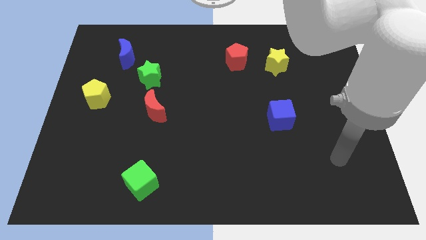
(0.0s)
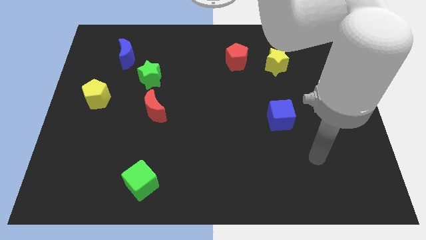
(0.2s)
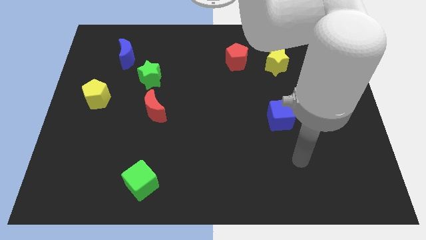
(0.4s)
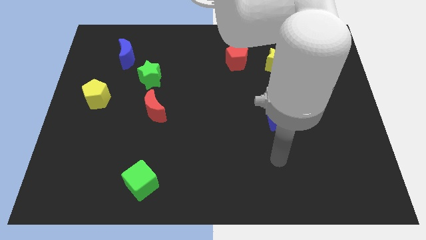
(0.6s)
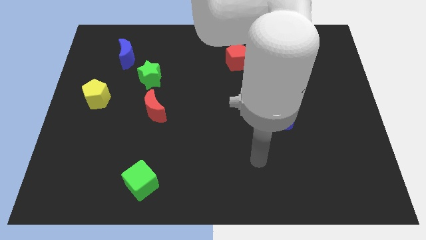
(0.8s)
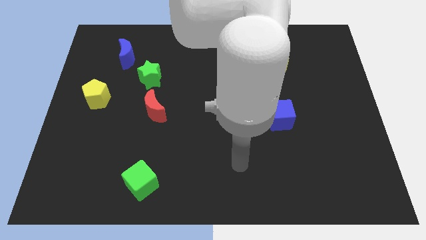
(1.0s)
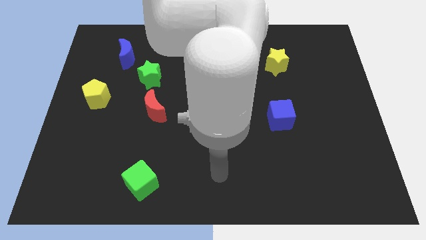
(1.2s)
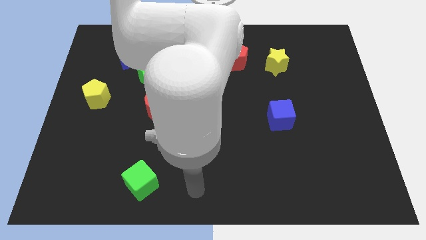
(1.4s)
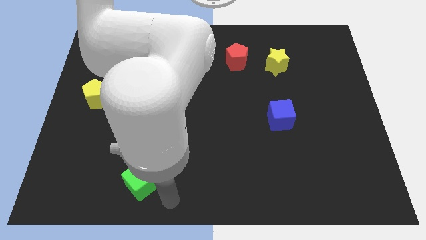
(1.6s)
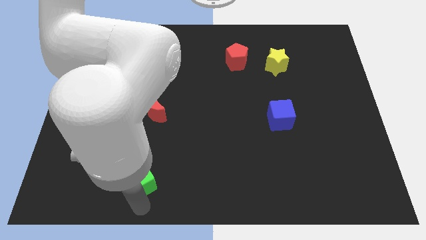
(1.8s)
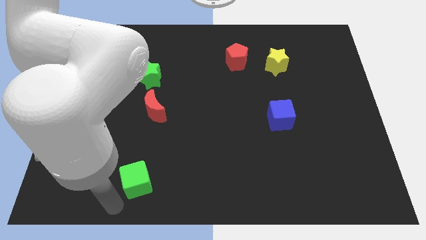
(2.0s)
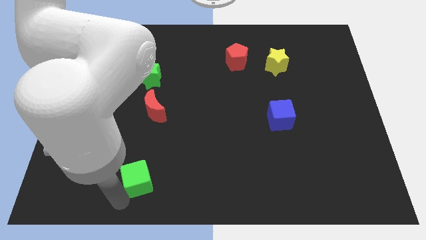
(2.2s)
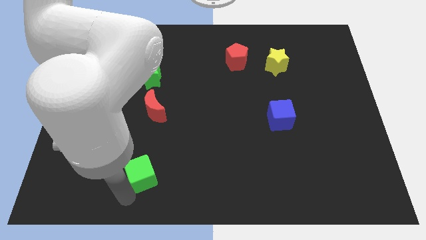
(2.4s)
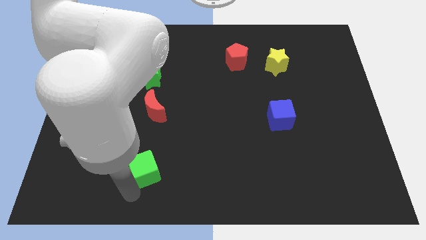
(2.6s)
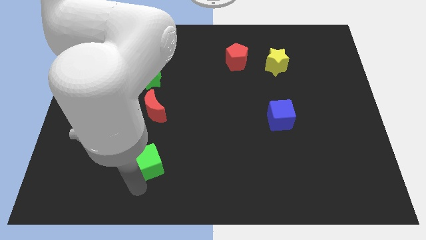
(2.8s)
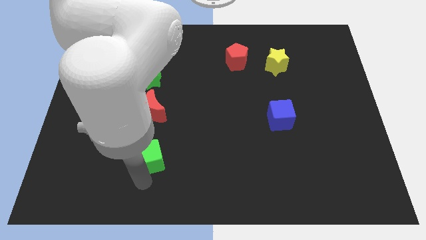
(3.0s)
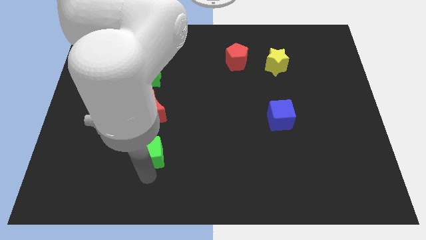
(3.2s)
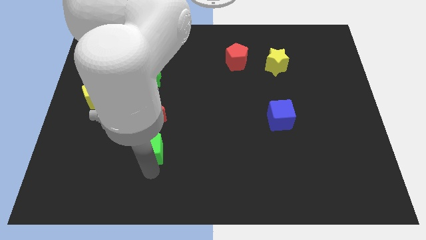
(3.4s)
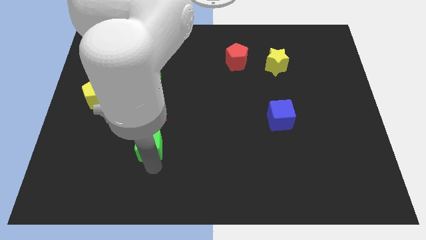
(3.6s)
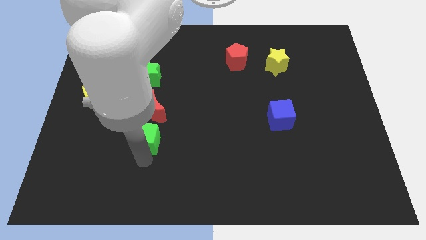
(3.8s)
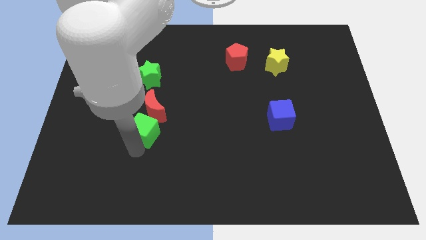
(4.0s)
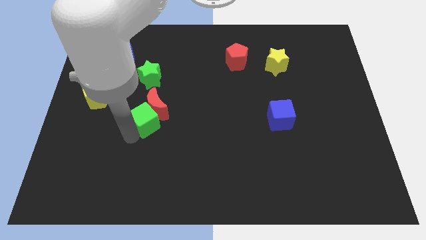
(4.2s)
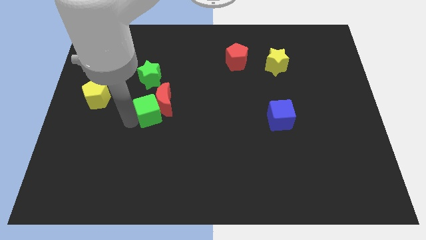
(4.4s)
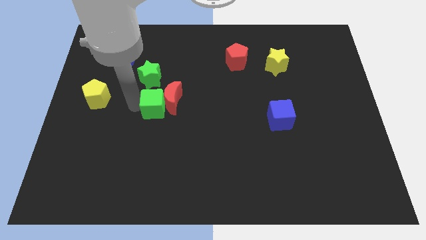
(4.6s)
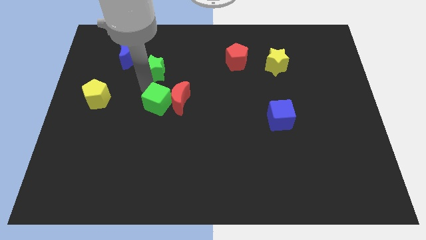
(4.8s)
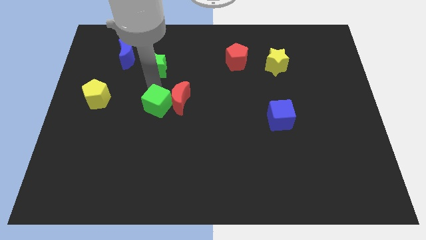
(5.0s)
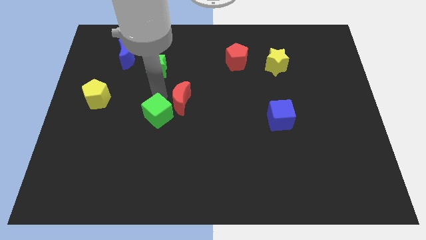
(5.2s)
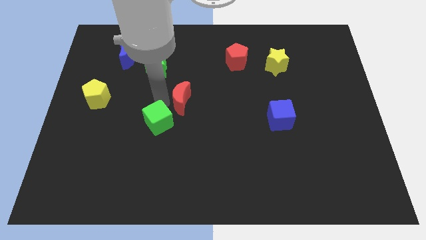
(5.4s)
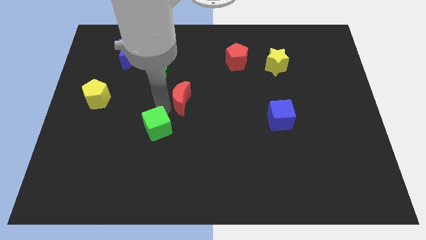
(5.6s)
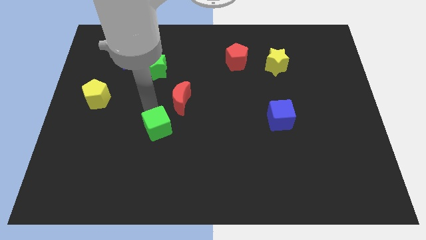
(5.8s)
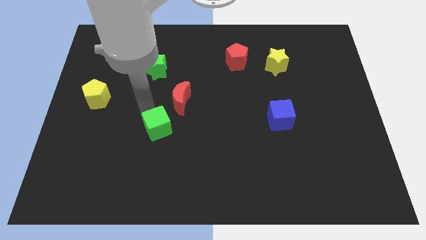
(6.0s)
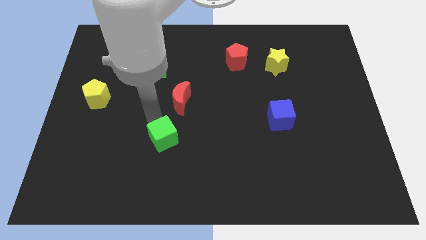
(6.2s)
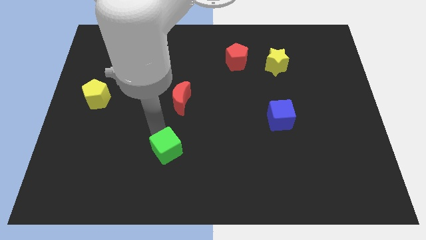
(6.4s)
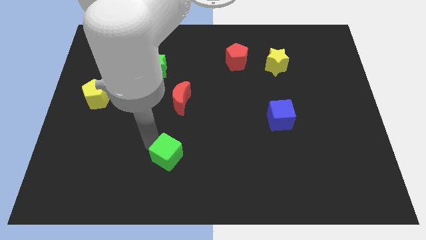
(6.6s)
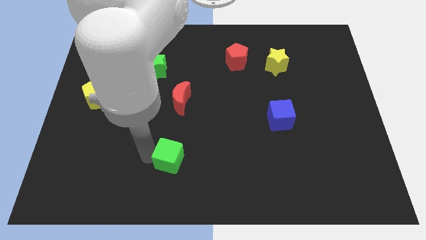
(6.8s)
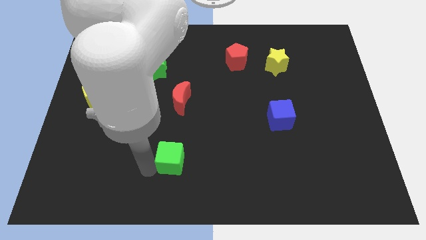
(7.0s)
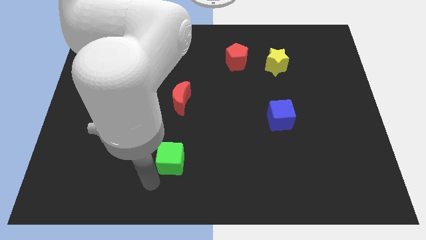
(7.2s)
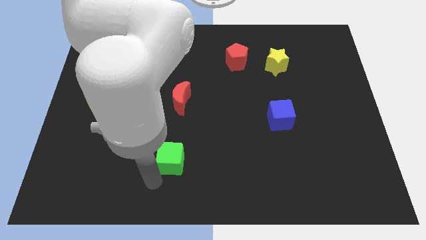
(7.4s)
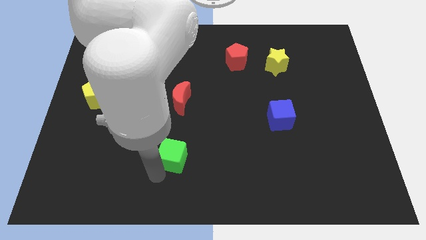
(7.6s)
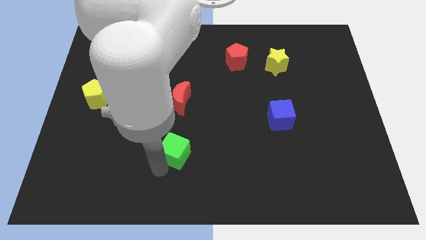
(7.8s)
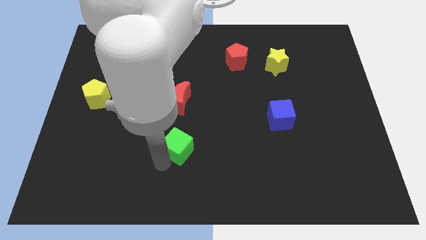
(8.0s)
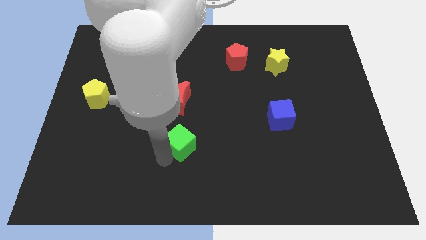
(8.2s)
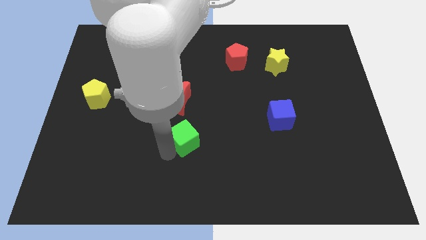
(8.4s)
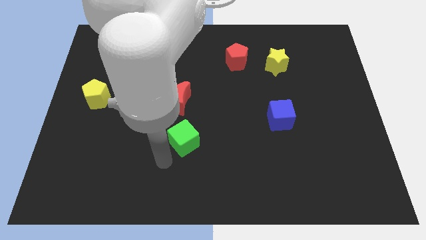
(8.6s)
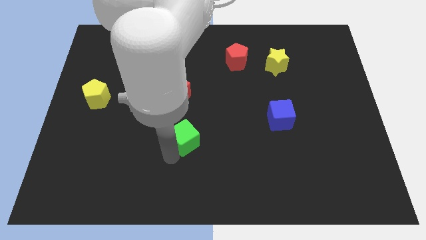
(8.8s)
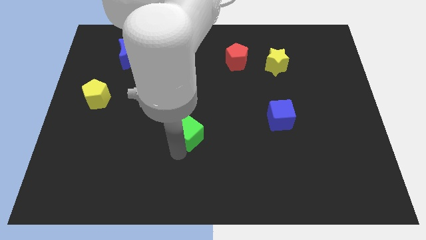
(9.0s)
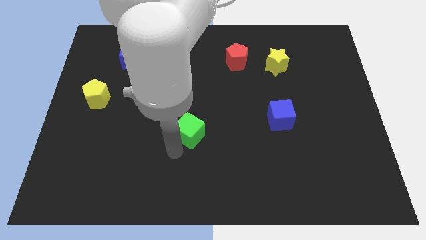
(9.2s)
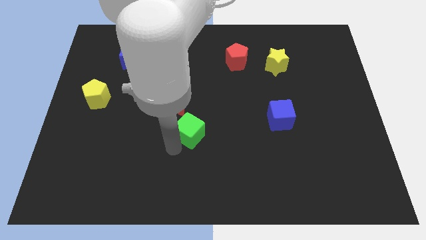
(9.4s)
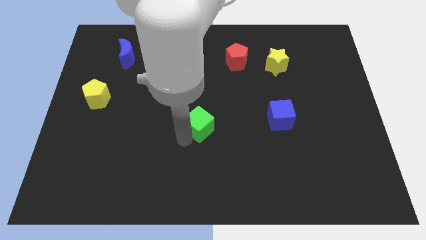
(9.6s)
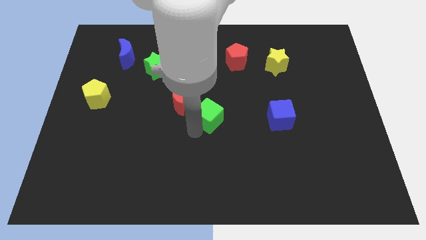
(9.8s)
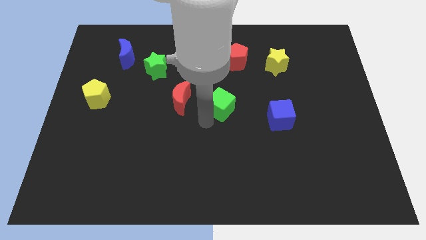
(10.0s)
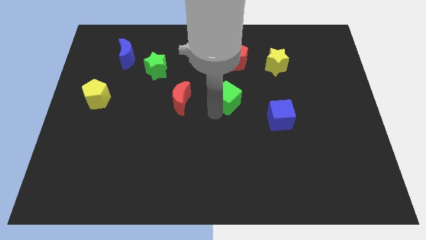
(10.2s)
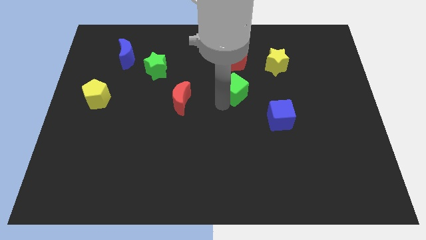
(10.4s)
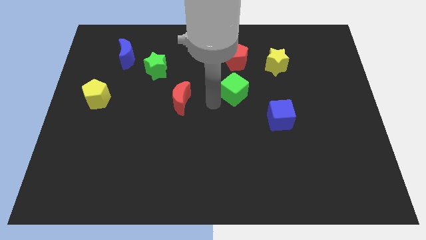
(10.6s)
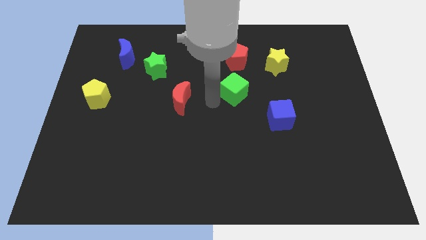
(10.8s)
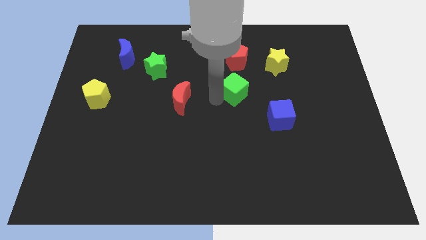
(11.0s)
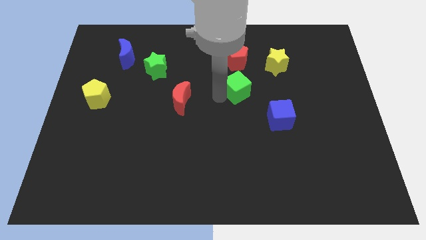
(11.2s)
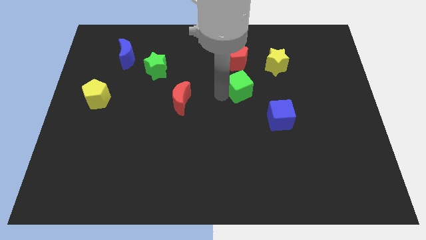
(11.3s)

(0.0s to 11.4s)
move the green cube to the bottom left of the yellow star

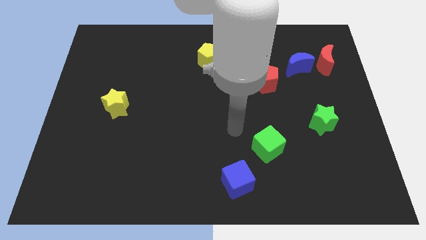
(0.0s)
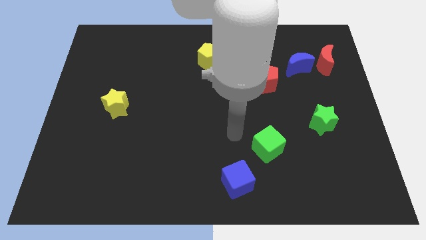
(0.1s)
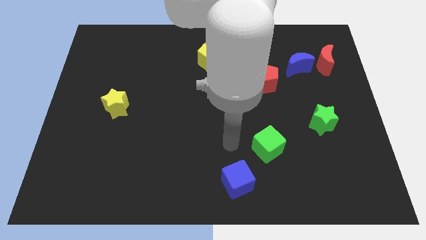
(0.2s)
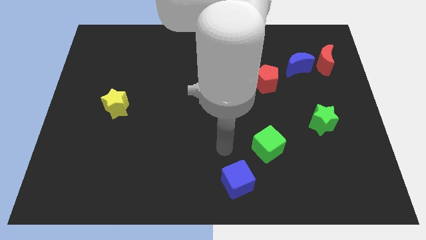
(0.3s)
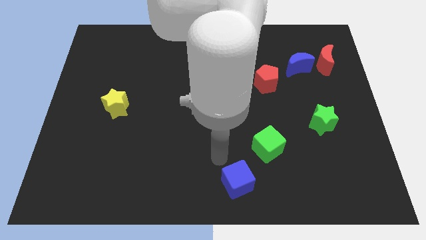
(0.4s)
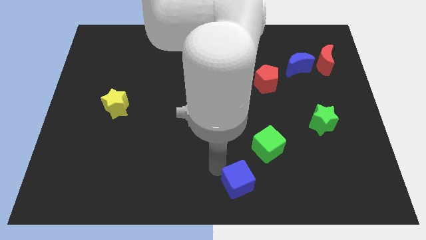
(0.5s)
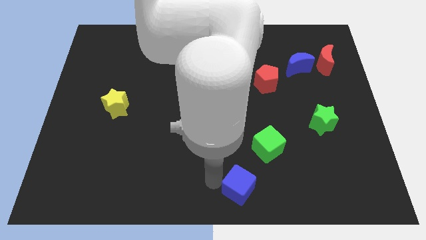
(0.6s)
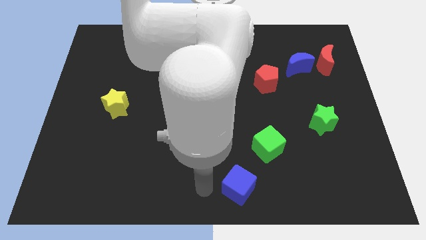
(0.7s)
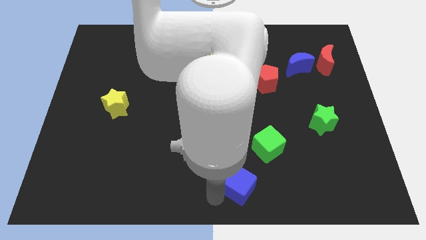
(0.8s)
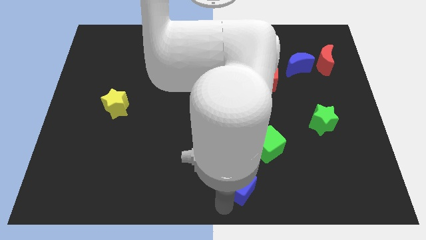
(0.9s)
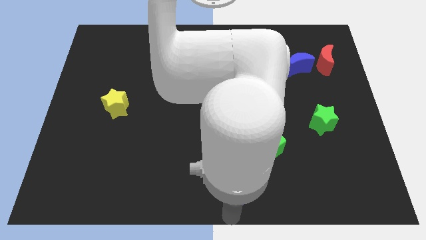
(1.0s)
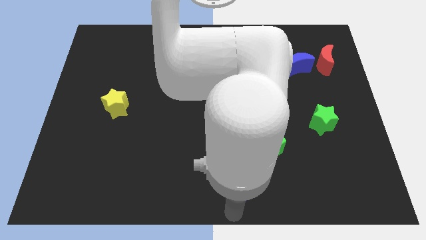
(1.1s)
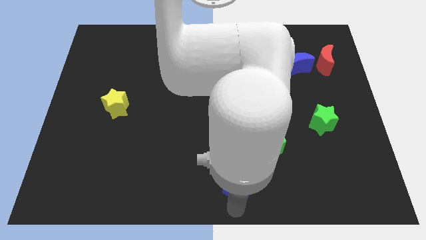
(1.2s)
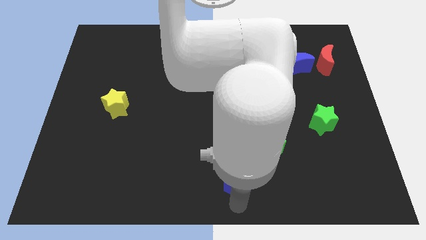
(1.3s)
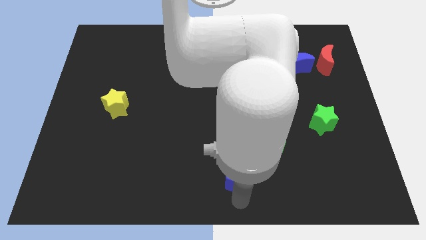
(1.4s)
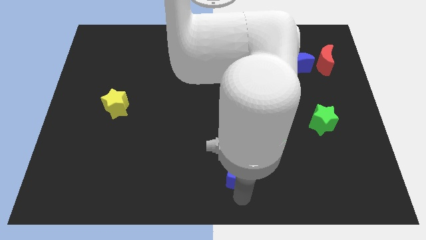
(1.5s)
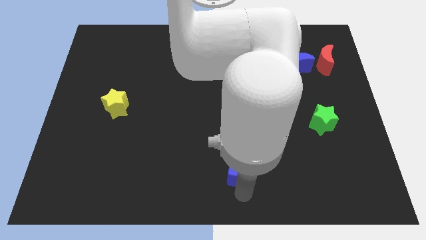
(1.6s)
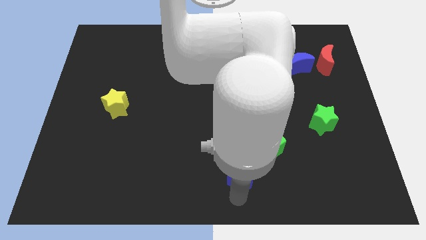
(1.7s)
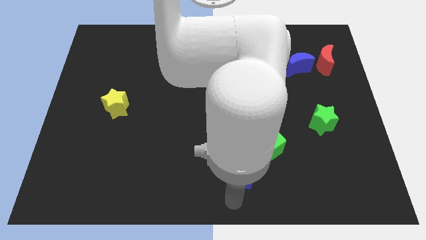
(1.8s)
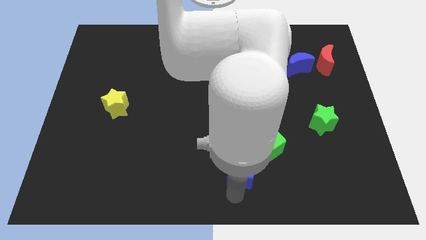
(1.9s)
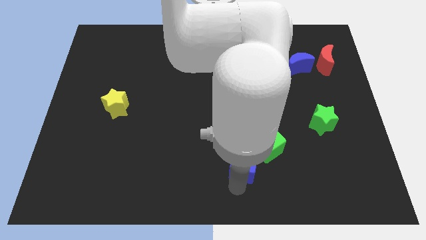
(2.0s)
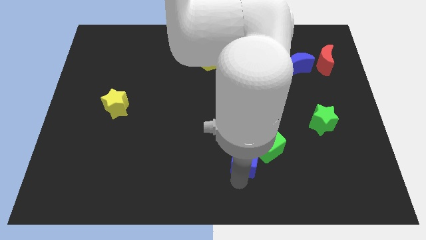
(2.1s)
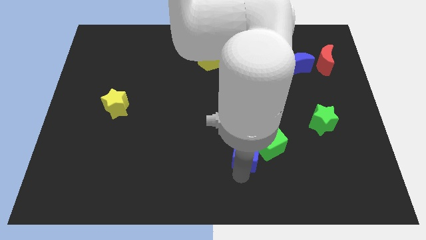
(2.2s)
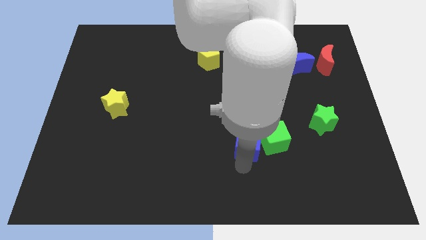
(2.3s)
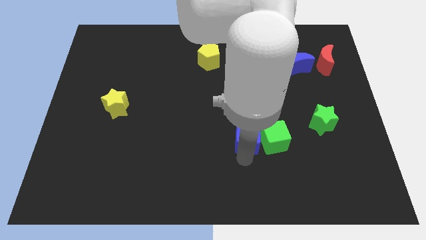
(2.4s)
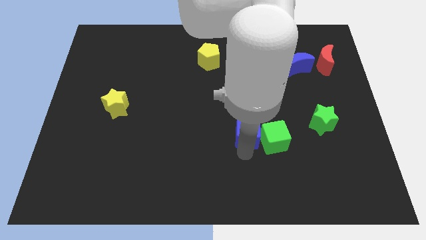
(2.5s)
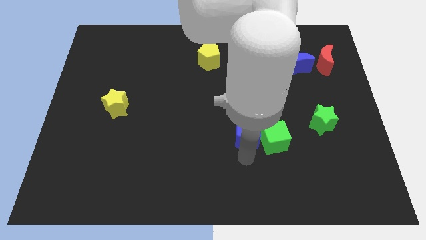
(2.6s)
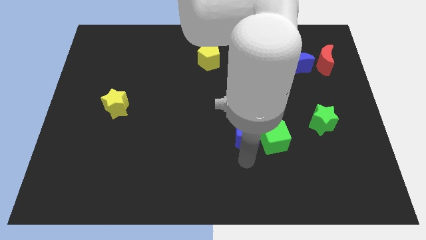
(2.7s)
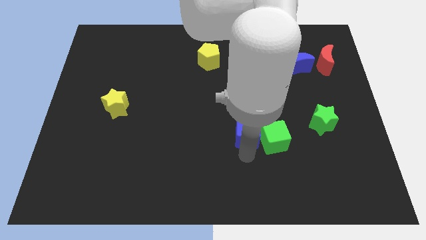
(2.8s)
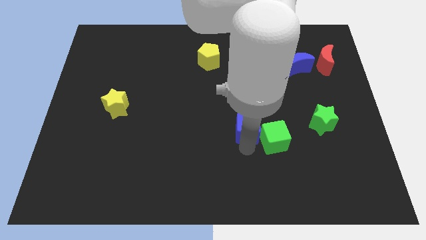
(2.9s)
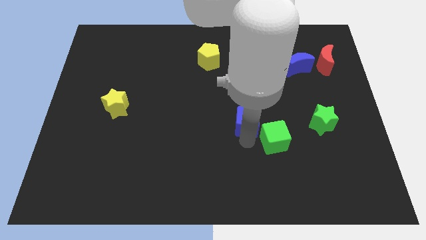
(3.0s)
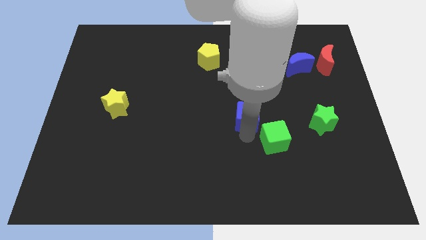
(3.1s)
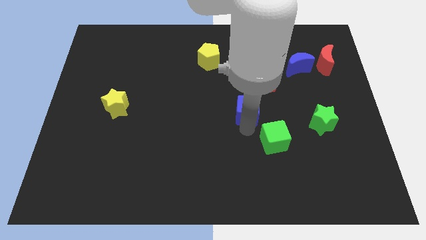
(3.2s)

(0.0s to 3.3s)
push the blue cube to the bottom left side of the red pentagon
